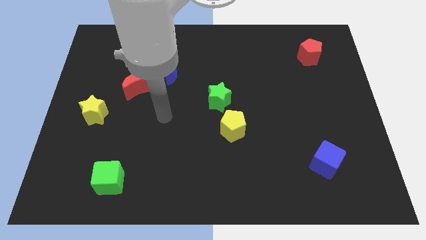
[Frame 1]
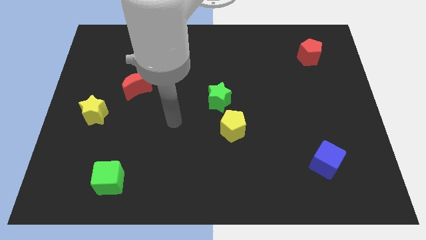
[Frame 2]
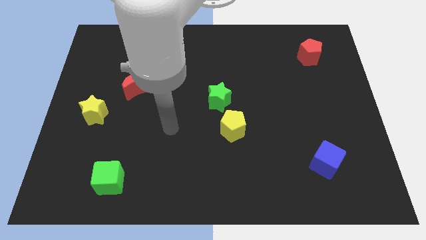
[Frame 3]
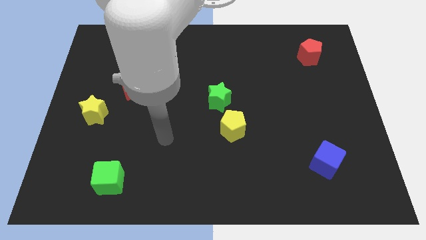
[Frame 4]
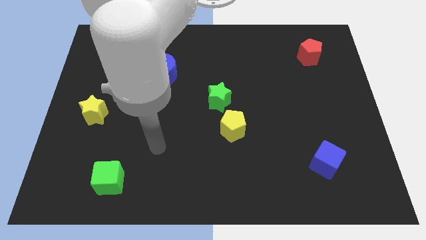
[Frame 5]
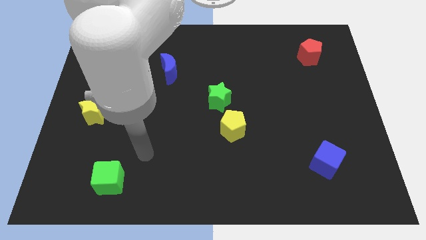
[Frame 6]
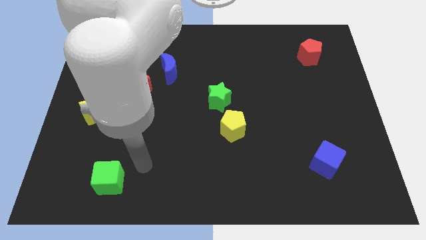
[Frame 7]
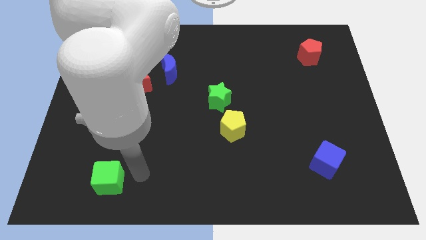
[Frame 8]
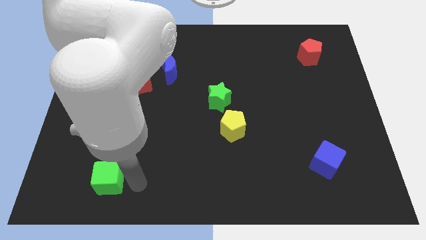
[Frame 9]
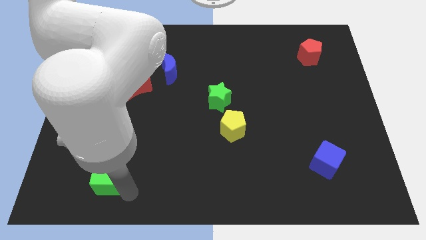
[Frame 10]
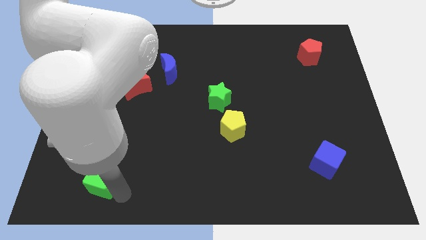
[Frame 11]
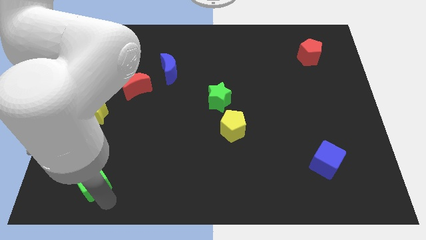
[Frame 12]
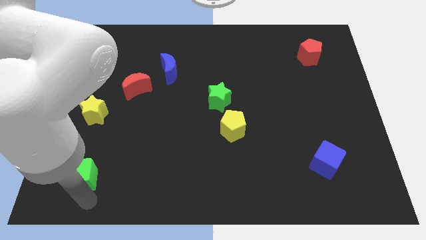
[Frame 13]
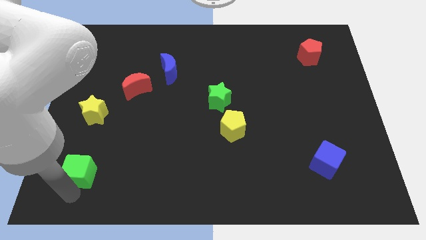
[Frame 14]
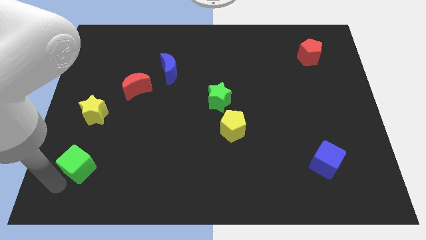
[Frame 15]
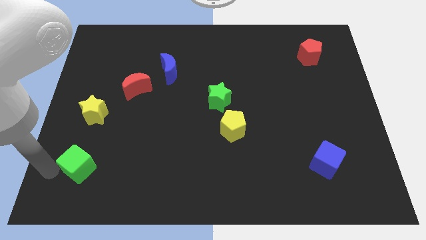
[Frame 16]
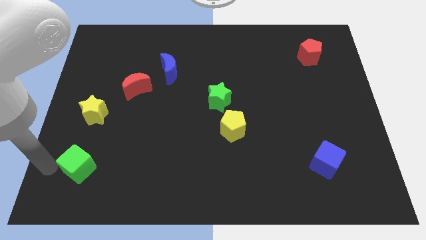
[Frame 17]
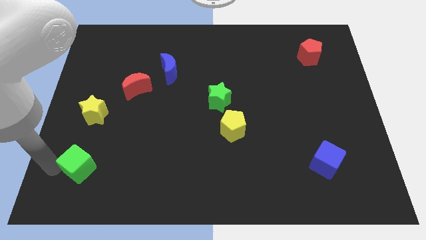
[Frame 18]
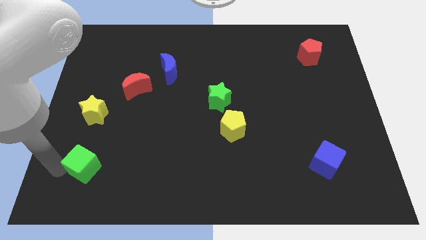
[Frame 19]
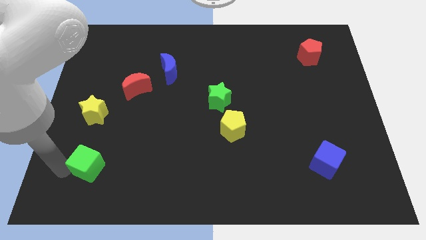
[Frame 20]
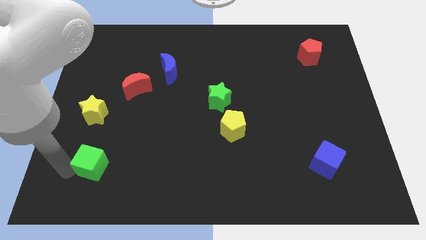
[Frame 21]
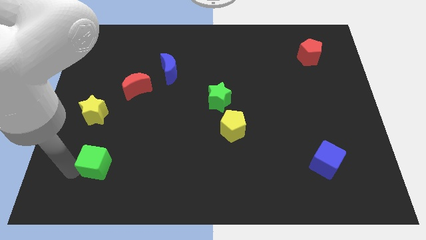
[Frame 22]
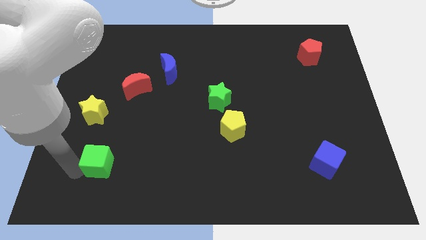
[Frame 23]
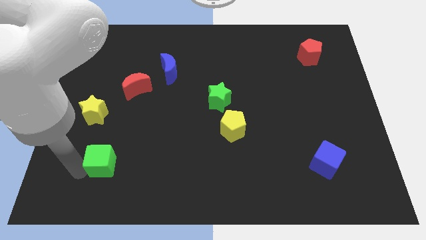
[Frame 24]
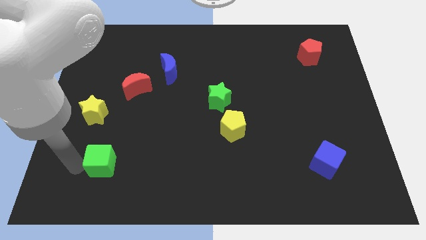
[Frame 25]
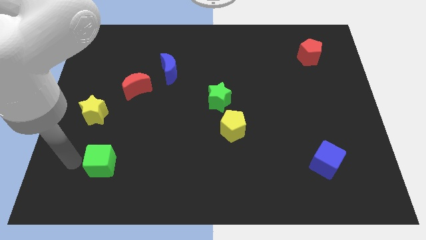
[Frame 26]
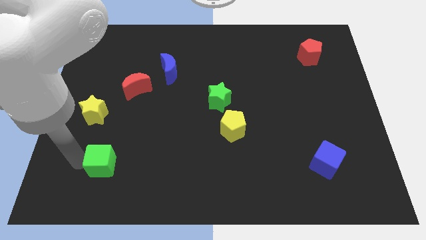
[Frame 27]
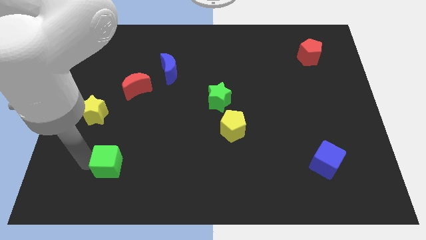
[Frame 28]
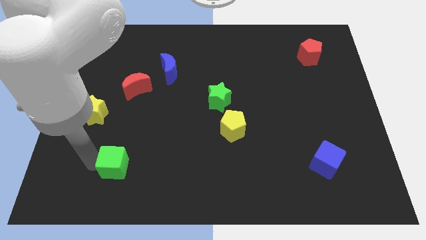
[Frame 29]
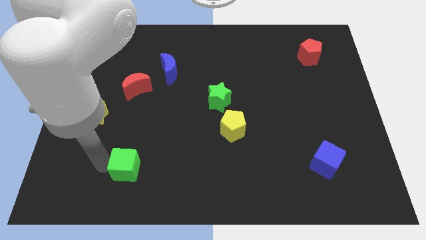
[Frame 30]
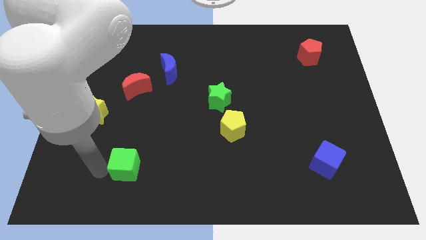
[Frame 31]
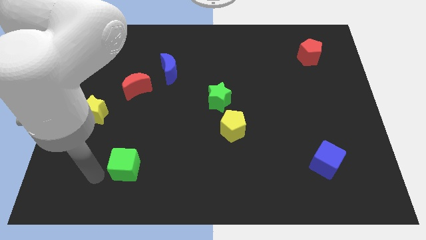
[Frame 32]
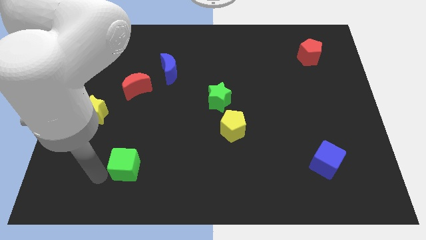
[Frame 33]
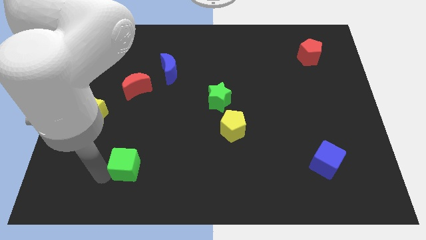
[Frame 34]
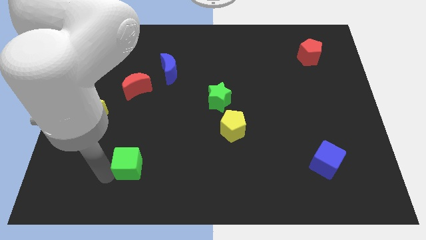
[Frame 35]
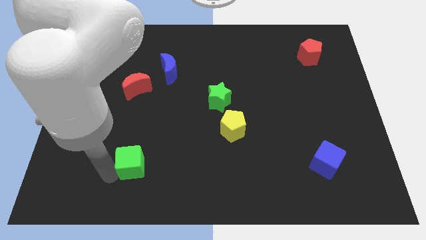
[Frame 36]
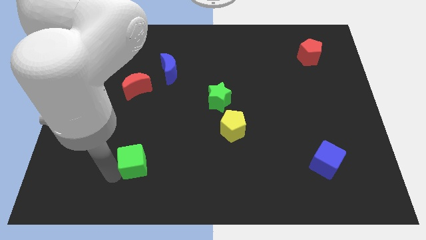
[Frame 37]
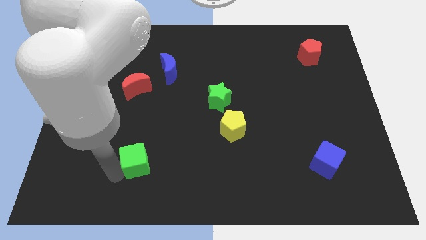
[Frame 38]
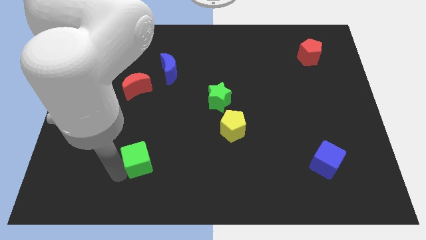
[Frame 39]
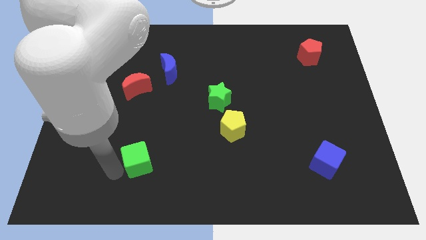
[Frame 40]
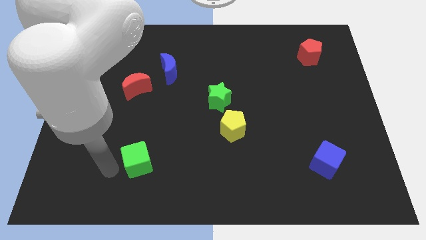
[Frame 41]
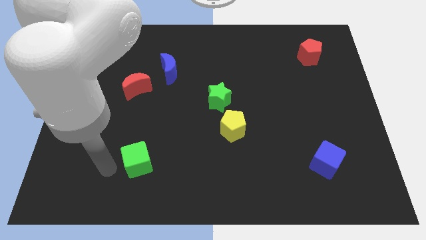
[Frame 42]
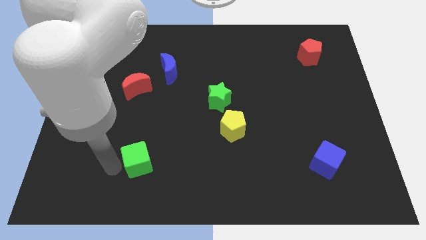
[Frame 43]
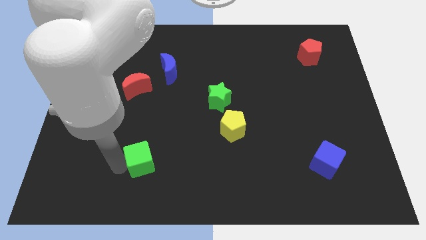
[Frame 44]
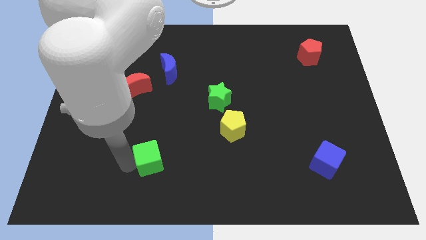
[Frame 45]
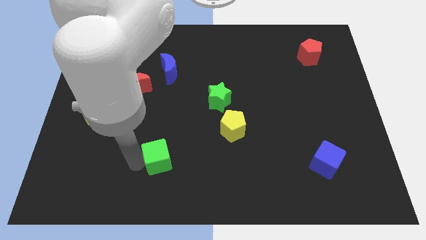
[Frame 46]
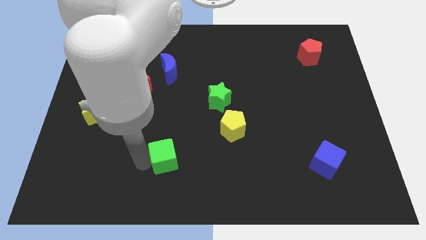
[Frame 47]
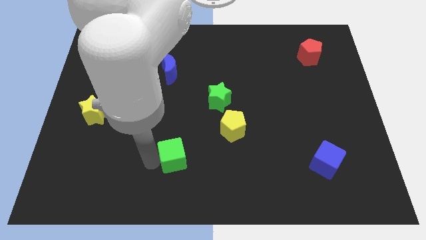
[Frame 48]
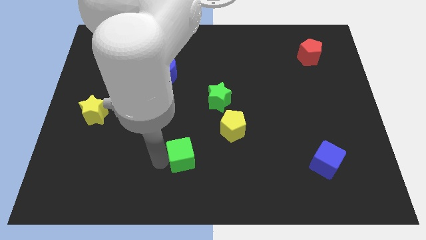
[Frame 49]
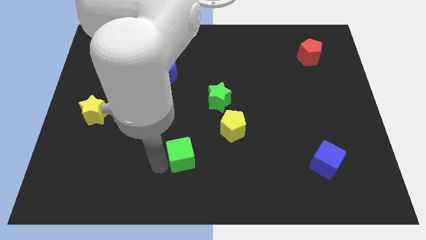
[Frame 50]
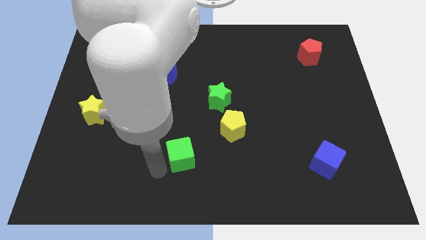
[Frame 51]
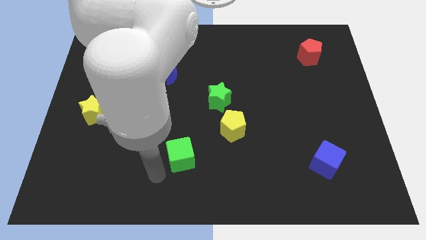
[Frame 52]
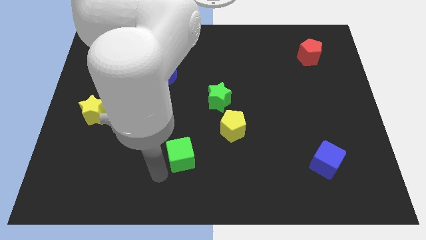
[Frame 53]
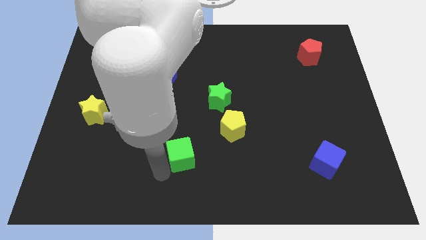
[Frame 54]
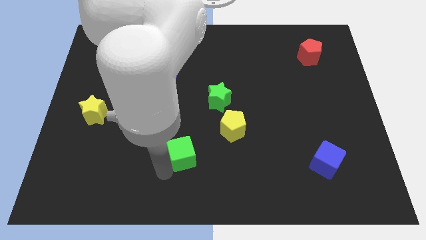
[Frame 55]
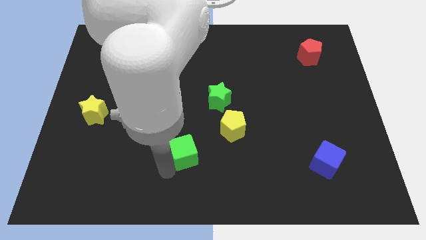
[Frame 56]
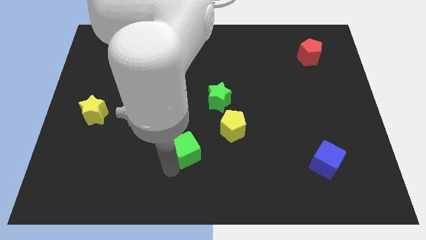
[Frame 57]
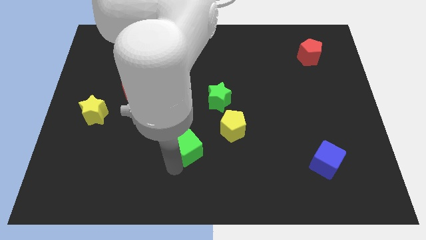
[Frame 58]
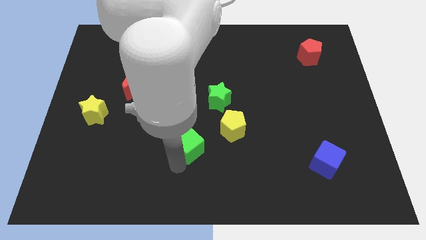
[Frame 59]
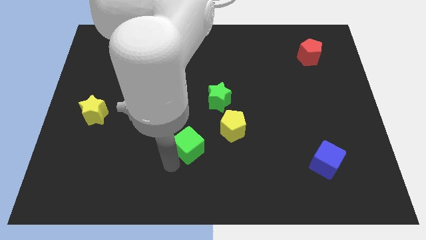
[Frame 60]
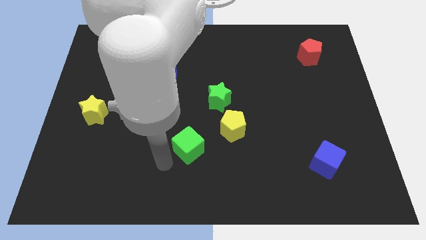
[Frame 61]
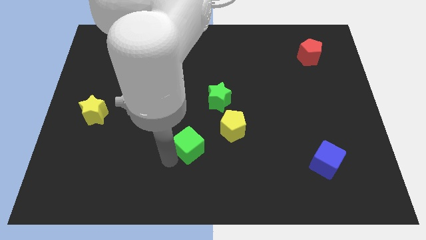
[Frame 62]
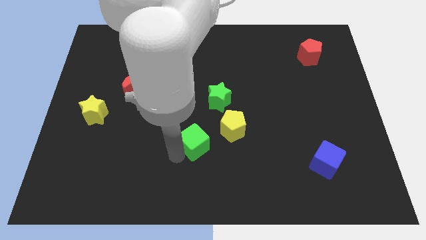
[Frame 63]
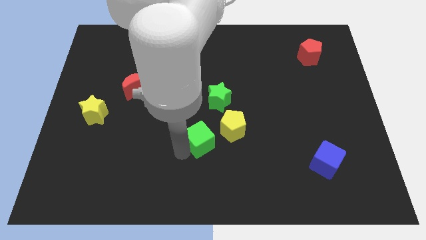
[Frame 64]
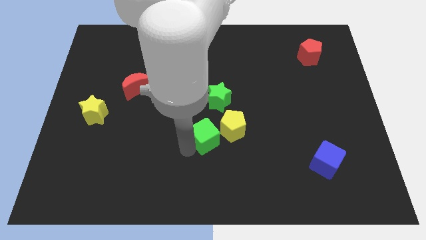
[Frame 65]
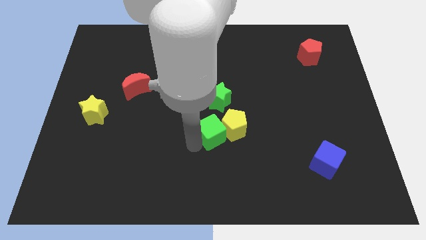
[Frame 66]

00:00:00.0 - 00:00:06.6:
move the green cube towards the yellow pentagon

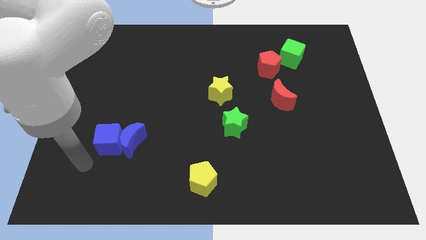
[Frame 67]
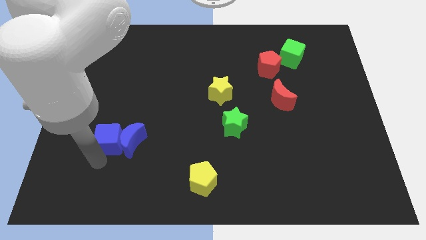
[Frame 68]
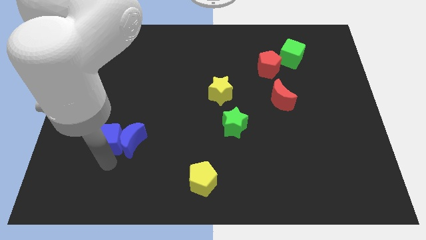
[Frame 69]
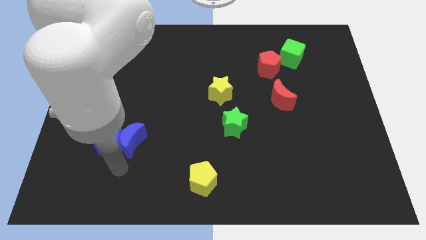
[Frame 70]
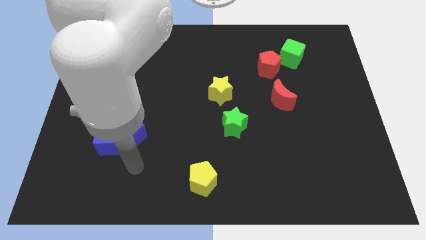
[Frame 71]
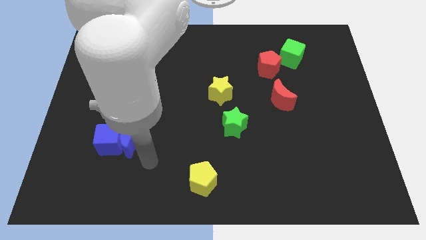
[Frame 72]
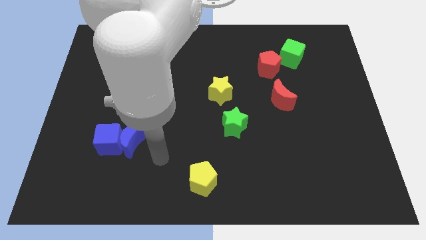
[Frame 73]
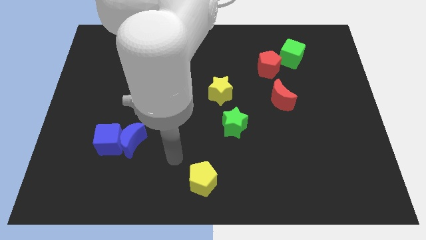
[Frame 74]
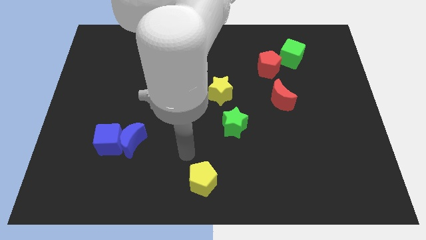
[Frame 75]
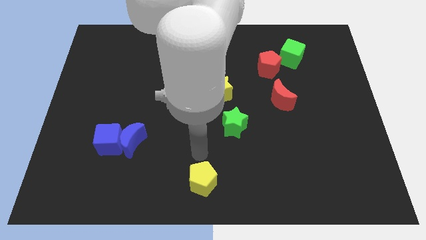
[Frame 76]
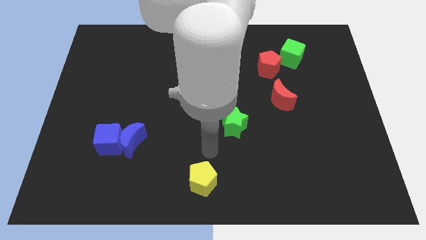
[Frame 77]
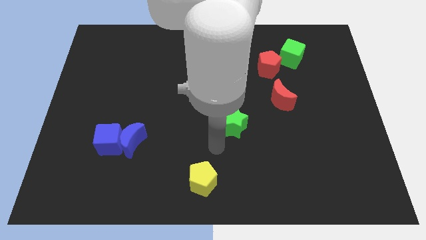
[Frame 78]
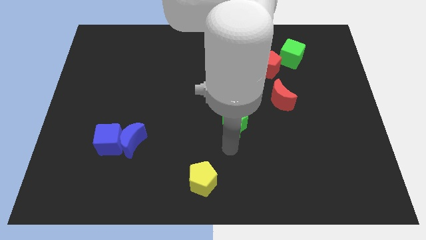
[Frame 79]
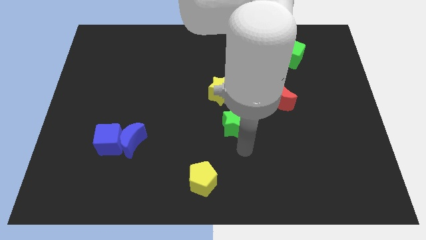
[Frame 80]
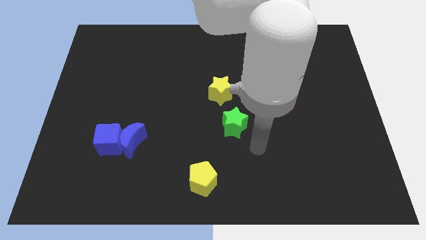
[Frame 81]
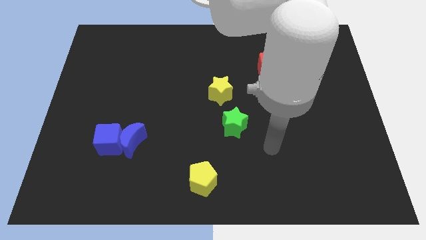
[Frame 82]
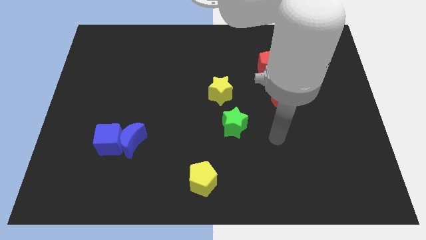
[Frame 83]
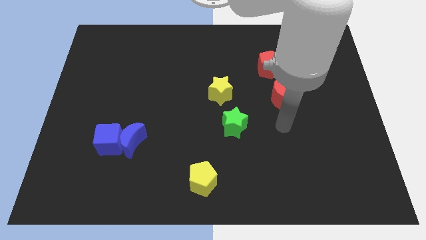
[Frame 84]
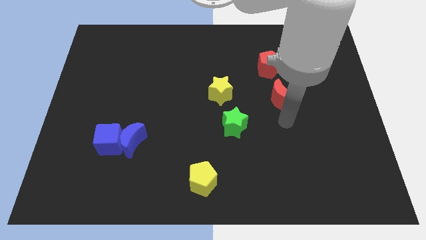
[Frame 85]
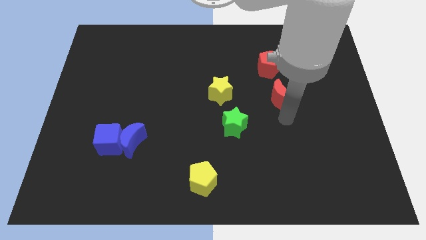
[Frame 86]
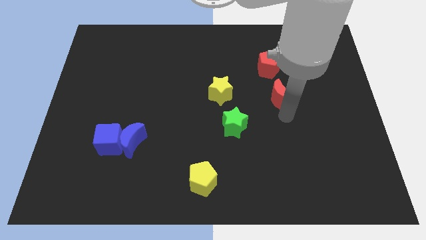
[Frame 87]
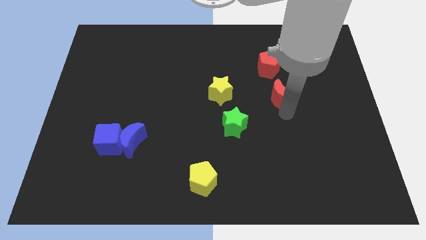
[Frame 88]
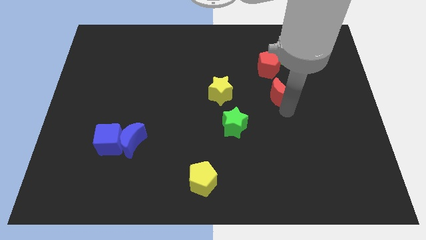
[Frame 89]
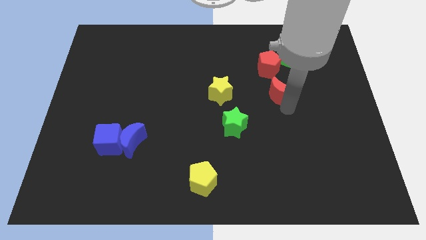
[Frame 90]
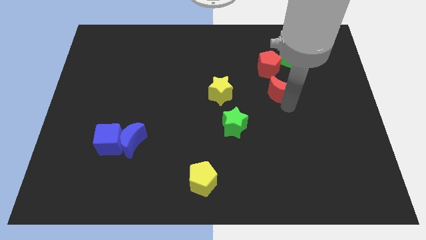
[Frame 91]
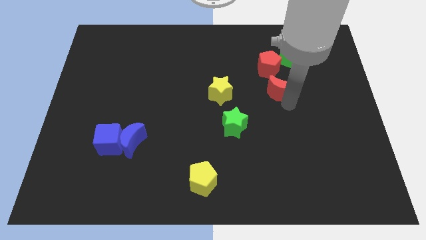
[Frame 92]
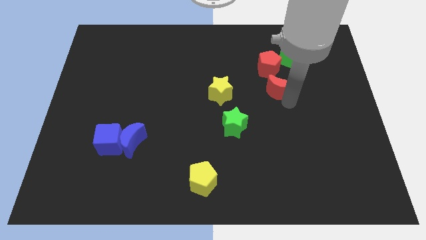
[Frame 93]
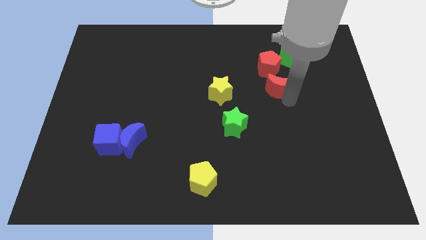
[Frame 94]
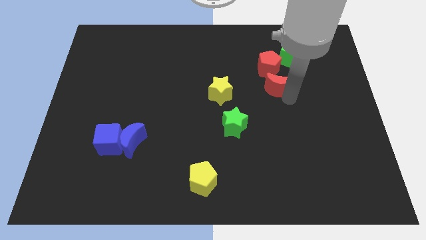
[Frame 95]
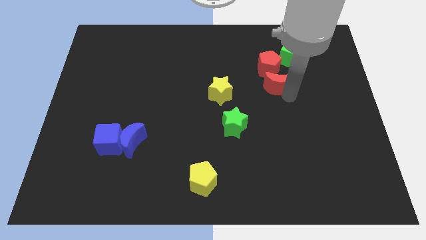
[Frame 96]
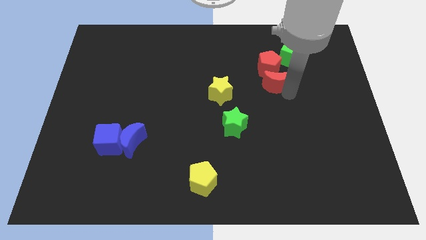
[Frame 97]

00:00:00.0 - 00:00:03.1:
push the red moon next to the red pentagon
